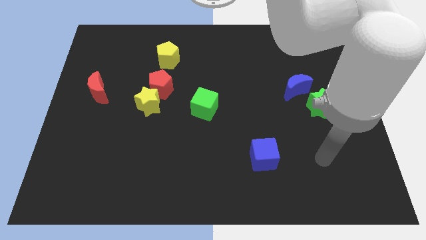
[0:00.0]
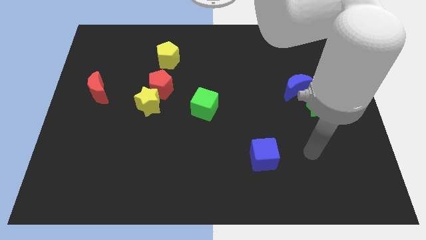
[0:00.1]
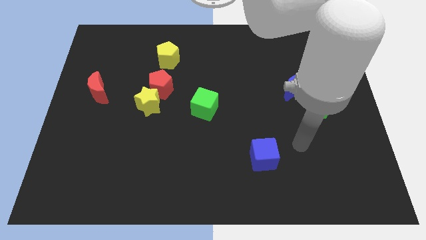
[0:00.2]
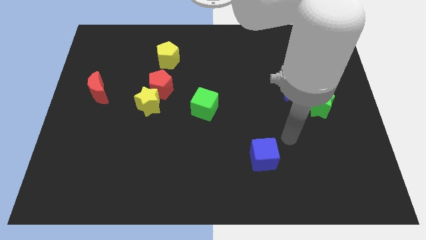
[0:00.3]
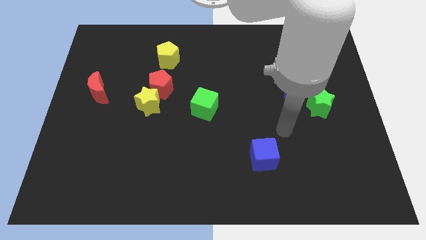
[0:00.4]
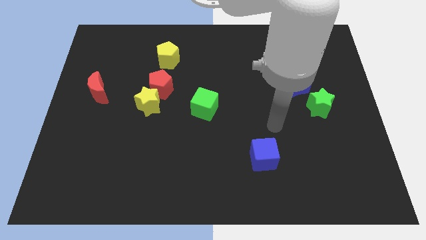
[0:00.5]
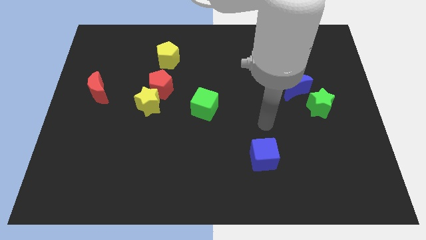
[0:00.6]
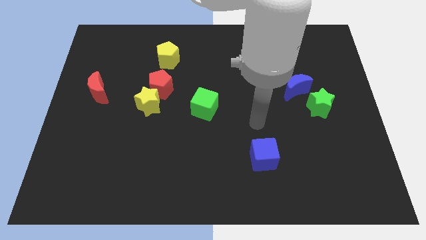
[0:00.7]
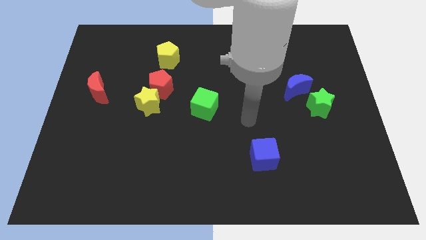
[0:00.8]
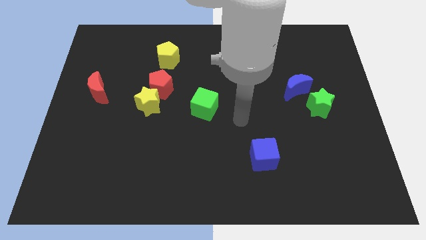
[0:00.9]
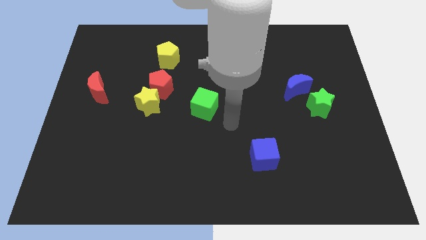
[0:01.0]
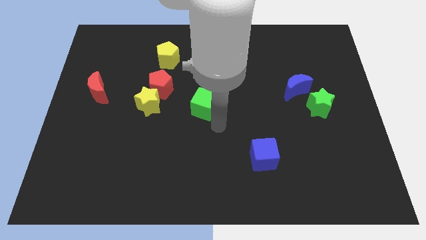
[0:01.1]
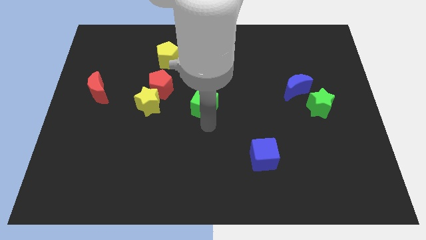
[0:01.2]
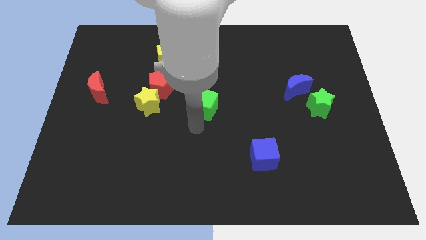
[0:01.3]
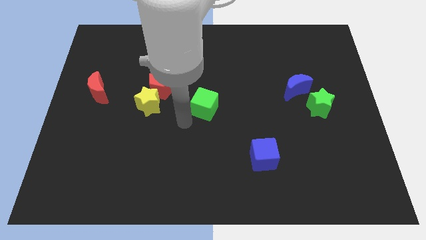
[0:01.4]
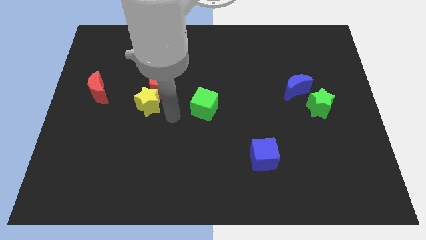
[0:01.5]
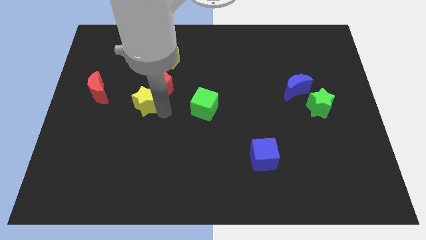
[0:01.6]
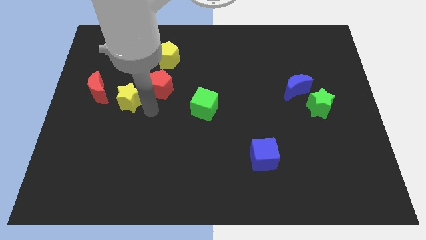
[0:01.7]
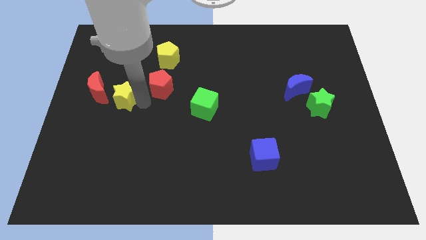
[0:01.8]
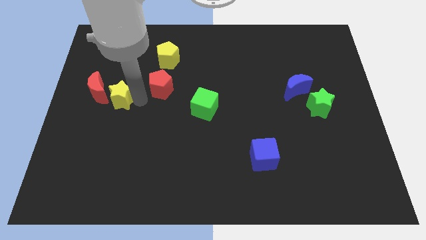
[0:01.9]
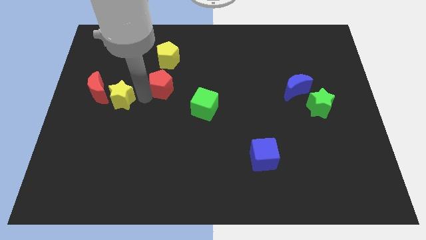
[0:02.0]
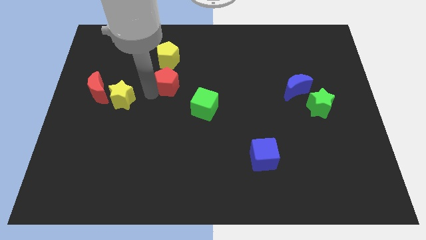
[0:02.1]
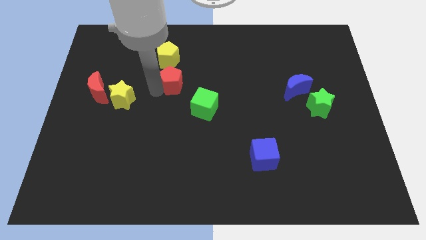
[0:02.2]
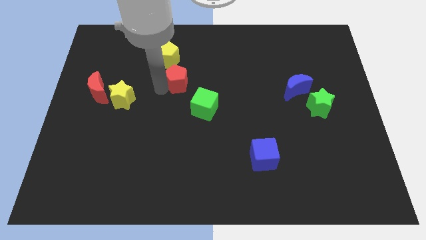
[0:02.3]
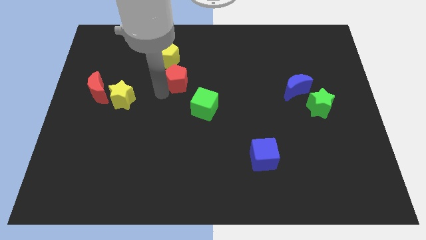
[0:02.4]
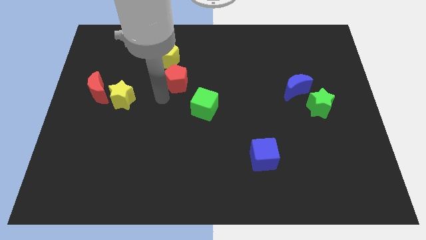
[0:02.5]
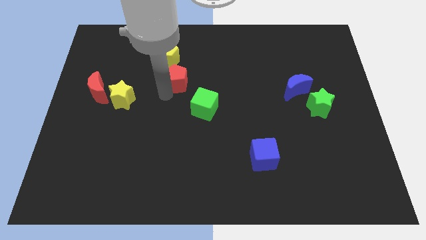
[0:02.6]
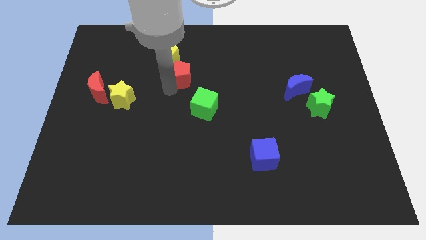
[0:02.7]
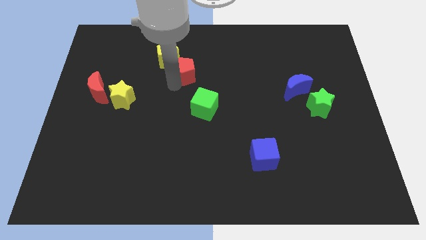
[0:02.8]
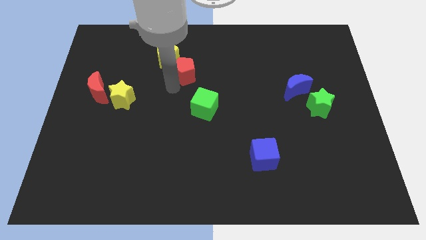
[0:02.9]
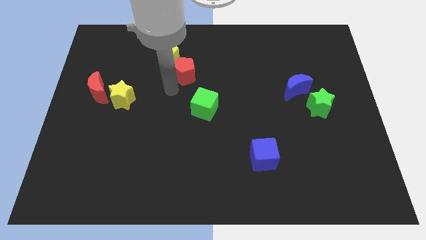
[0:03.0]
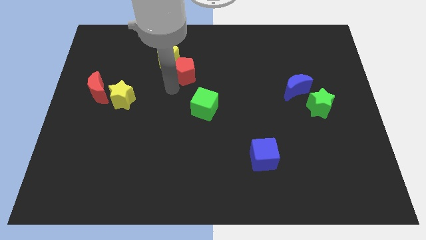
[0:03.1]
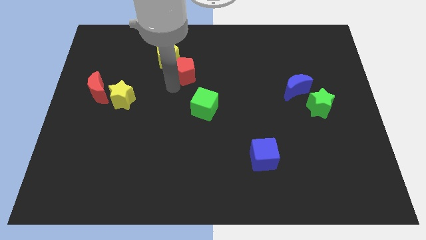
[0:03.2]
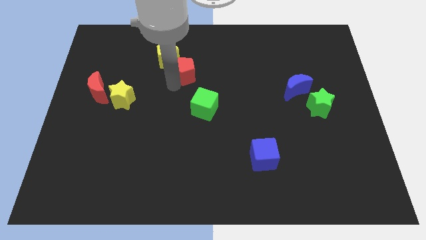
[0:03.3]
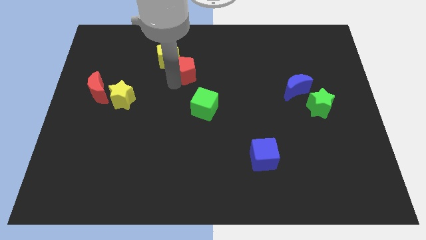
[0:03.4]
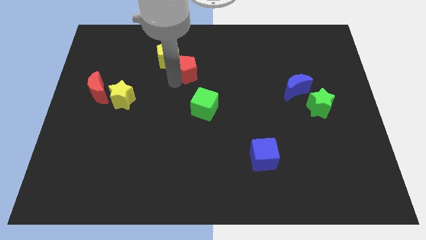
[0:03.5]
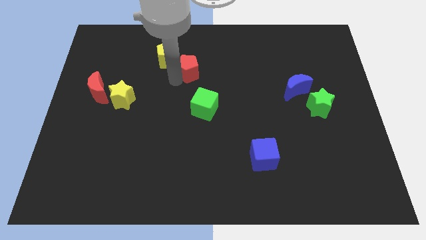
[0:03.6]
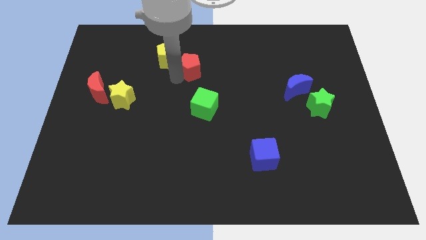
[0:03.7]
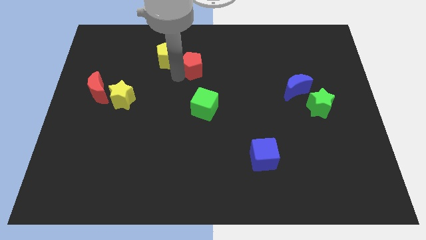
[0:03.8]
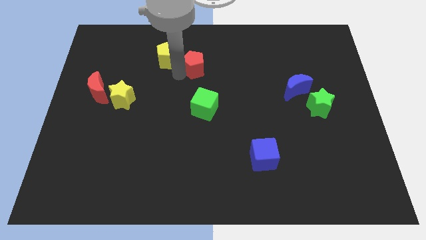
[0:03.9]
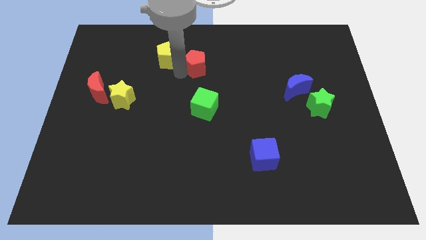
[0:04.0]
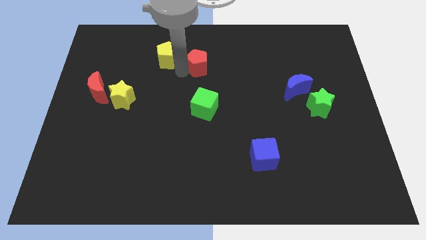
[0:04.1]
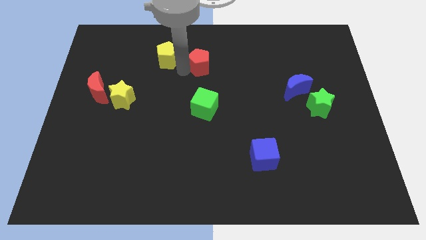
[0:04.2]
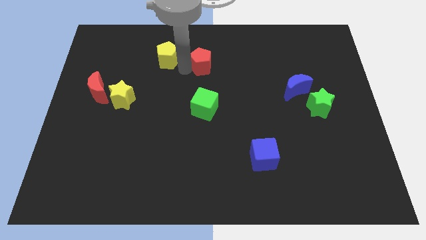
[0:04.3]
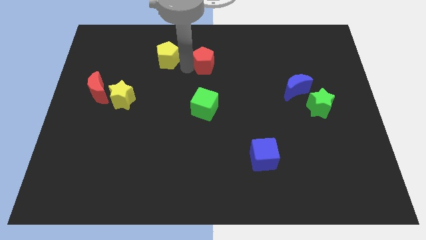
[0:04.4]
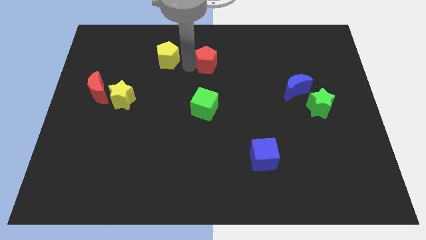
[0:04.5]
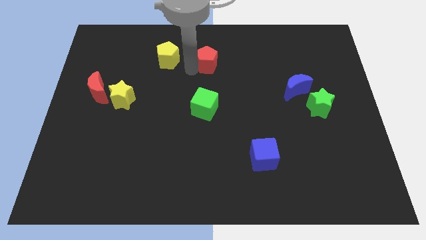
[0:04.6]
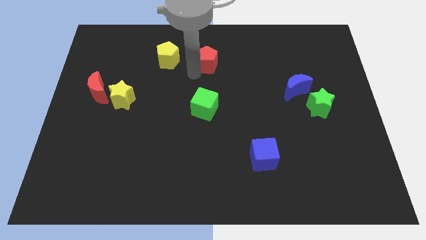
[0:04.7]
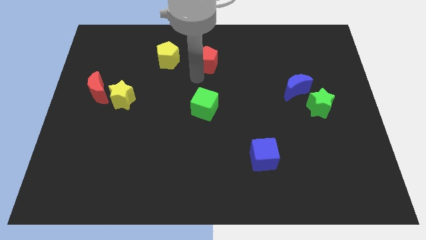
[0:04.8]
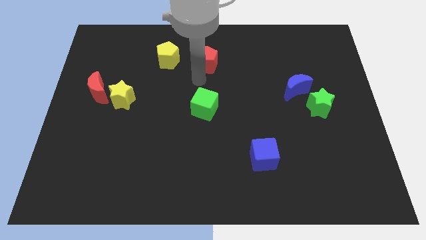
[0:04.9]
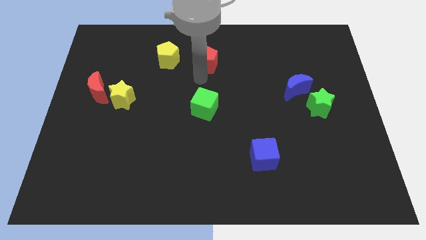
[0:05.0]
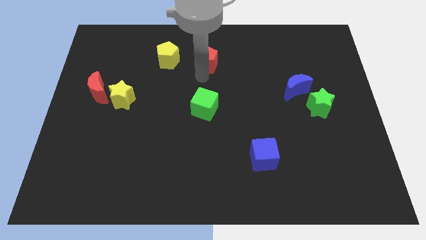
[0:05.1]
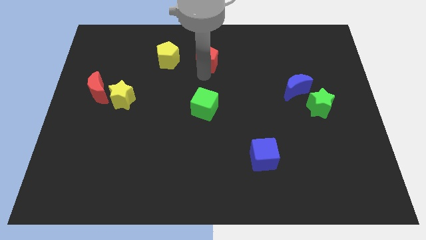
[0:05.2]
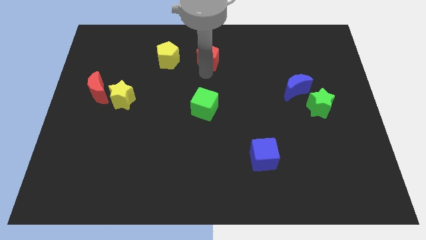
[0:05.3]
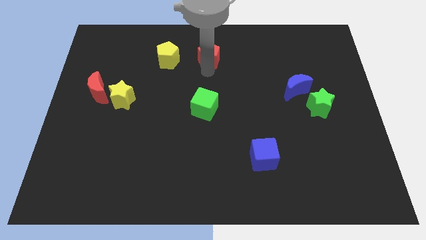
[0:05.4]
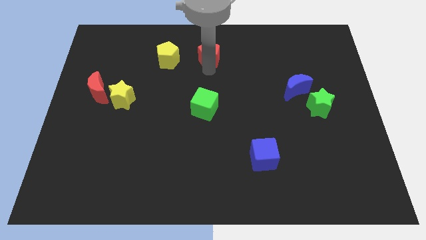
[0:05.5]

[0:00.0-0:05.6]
move the red pentagon to the top

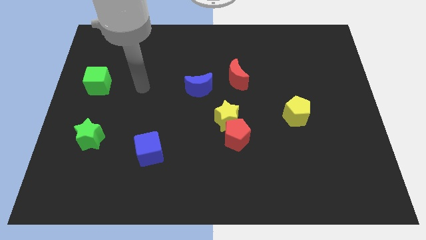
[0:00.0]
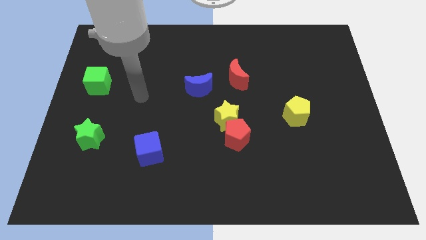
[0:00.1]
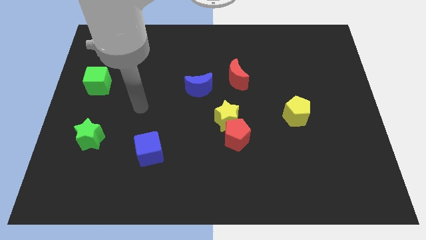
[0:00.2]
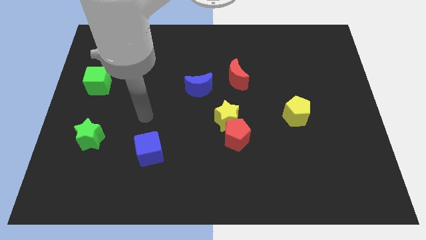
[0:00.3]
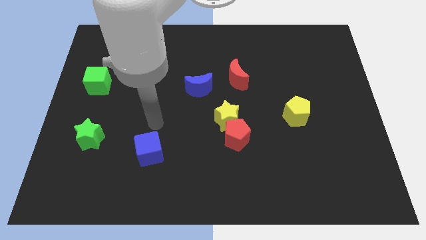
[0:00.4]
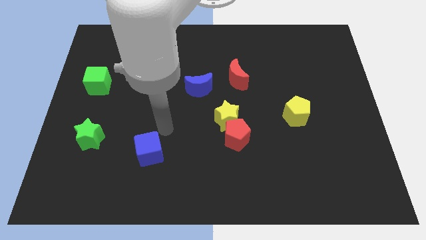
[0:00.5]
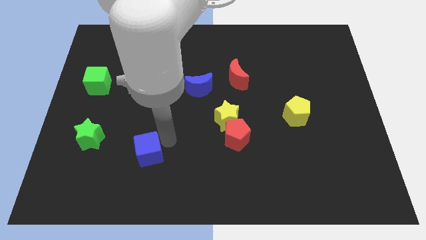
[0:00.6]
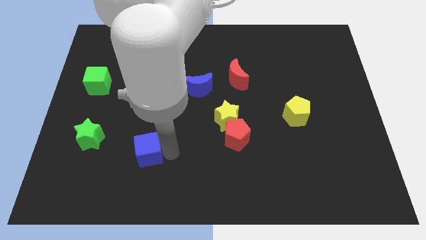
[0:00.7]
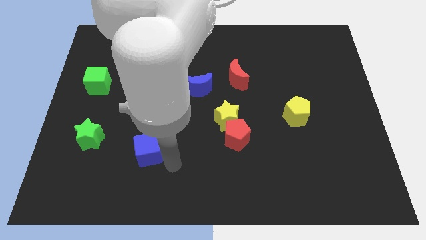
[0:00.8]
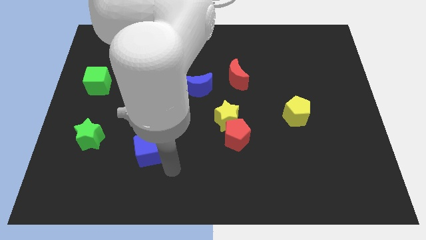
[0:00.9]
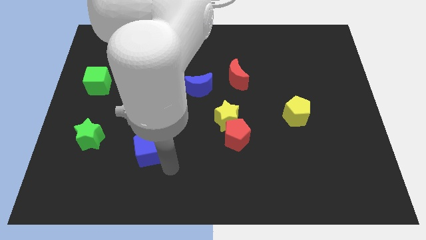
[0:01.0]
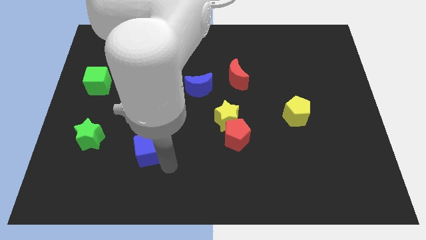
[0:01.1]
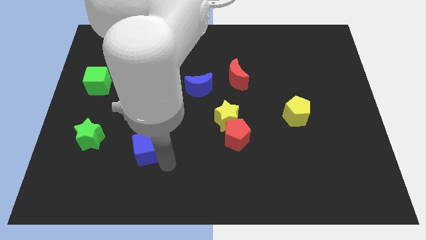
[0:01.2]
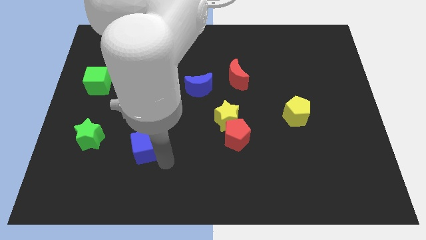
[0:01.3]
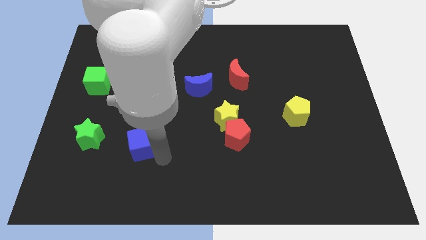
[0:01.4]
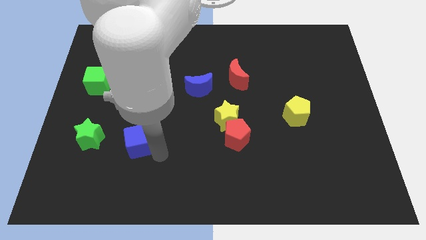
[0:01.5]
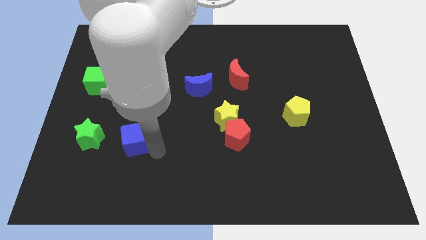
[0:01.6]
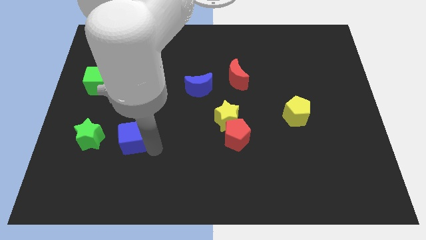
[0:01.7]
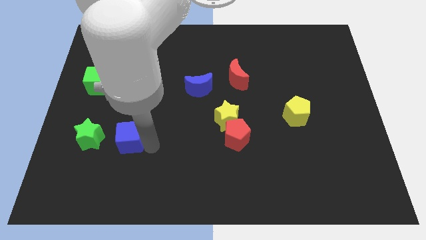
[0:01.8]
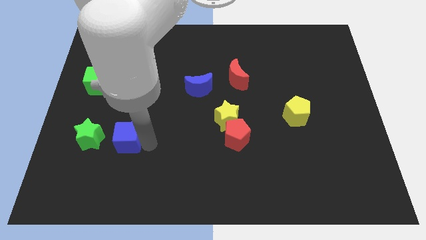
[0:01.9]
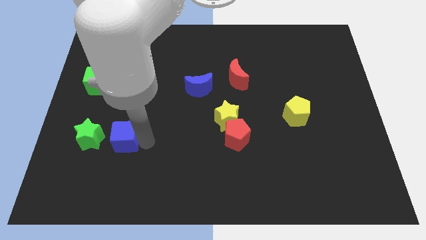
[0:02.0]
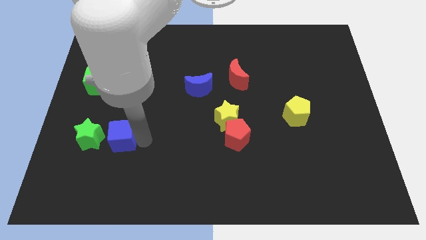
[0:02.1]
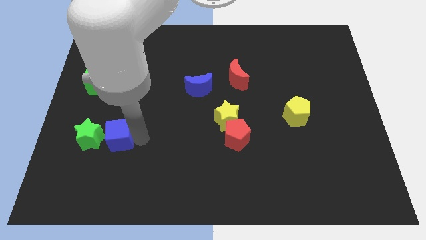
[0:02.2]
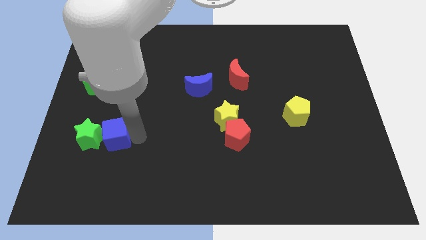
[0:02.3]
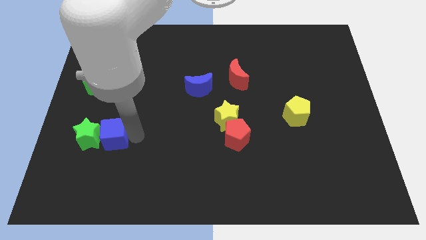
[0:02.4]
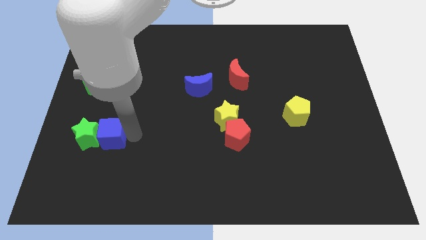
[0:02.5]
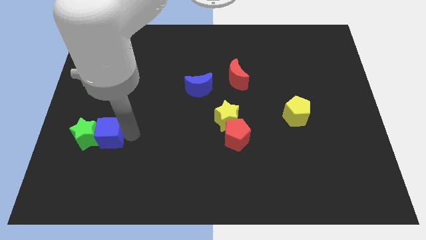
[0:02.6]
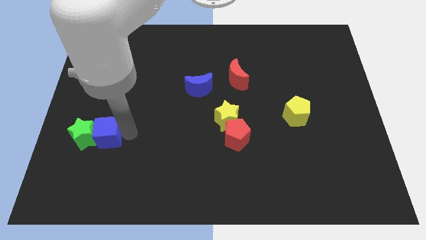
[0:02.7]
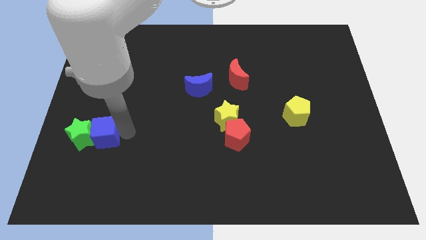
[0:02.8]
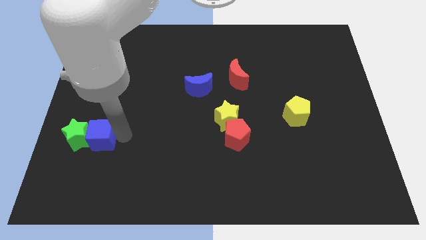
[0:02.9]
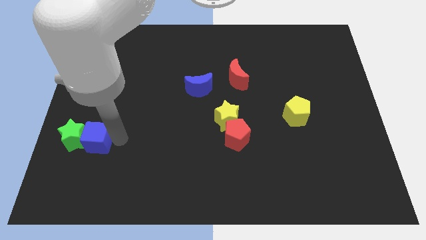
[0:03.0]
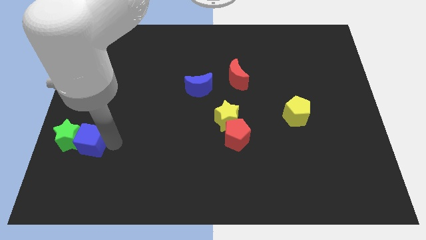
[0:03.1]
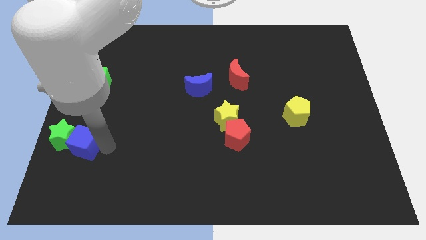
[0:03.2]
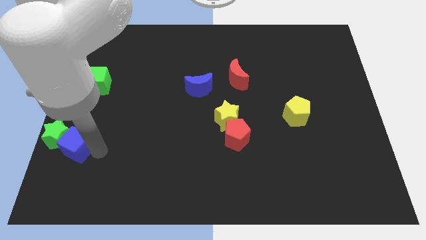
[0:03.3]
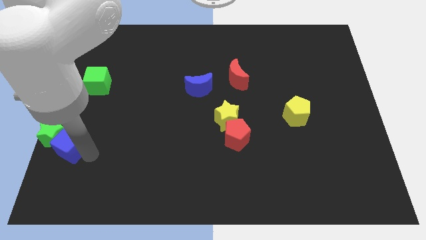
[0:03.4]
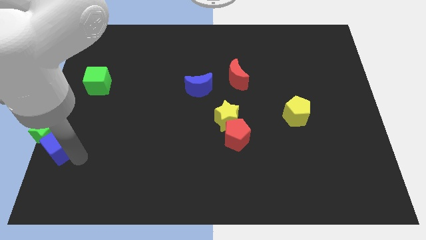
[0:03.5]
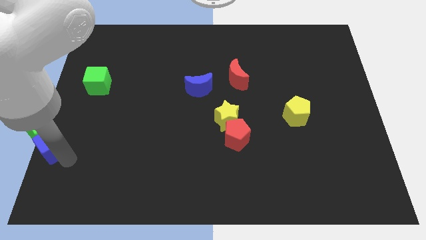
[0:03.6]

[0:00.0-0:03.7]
move the blue cube to the left side of the board
